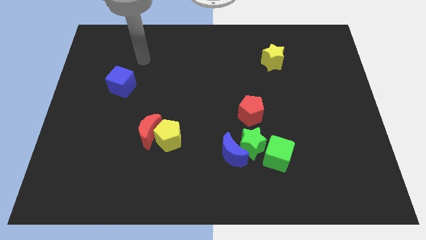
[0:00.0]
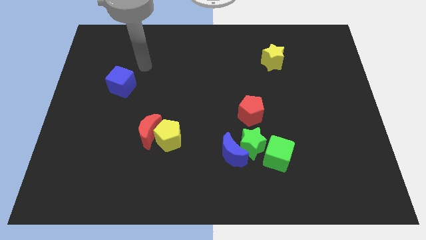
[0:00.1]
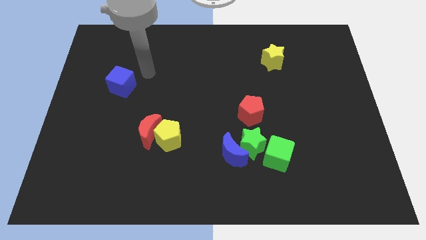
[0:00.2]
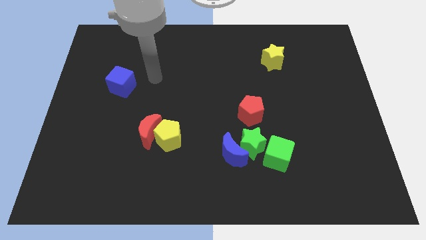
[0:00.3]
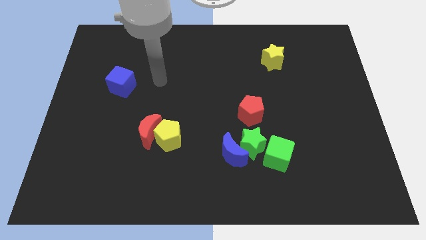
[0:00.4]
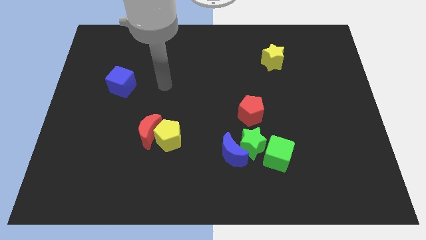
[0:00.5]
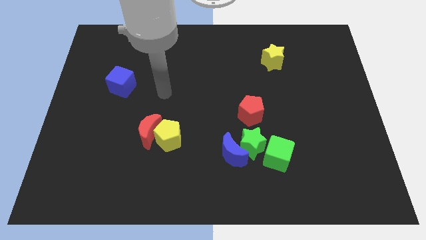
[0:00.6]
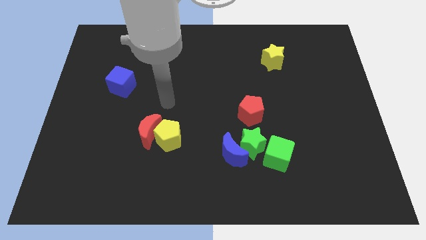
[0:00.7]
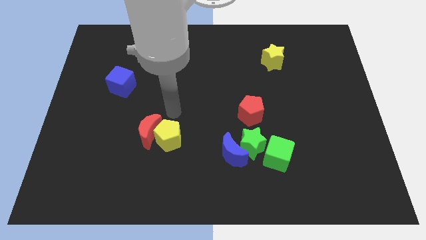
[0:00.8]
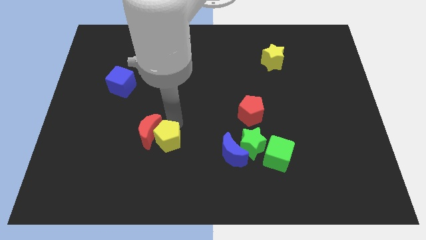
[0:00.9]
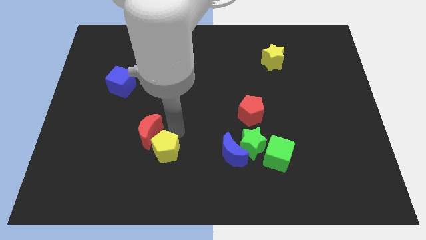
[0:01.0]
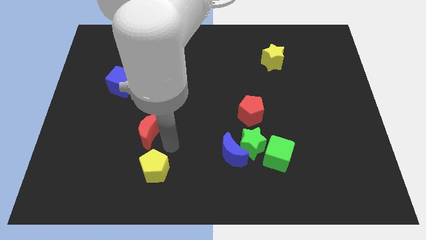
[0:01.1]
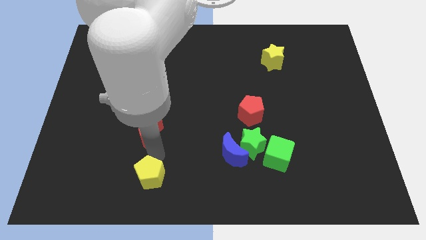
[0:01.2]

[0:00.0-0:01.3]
pull the red moon apart from the yellow pentagon

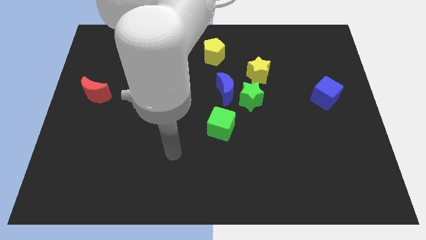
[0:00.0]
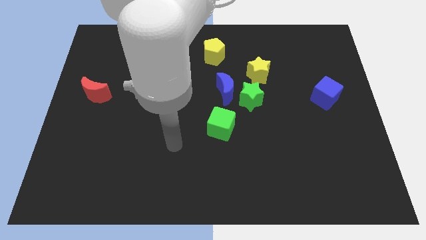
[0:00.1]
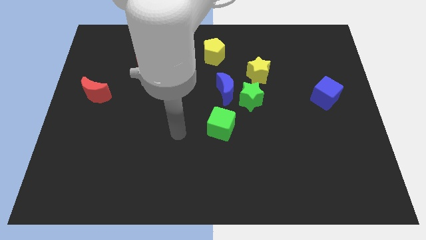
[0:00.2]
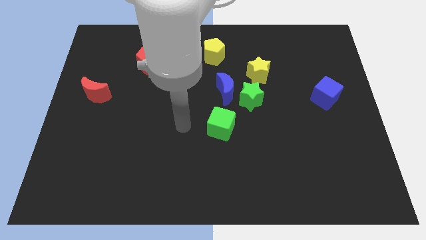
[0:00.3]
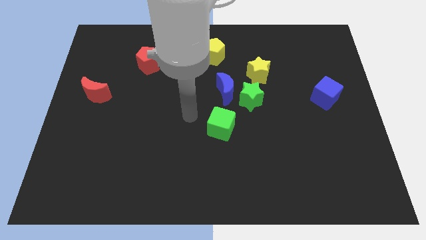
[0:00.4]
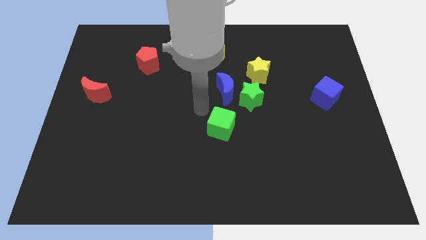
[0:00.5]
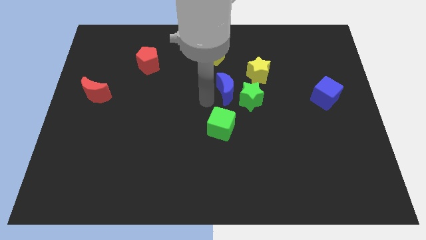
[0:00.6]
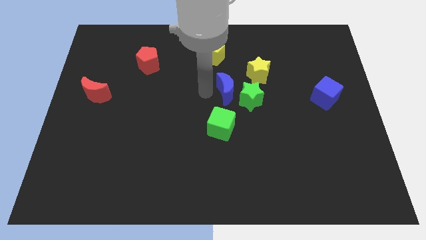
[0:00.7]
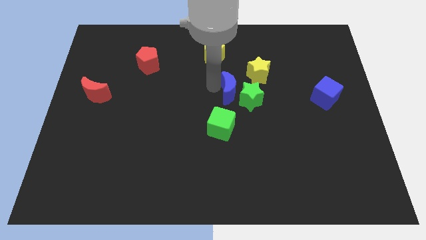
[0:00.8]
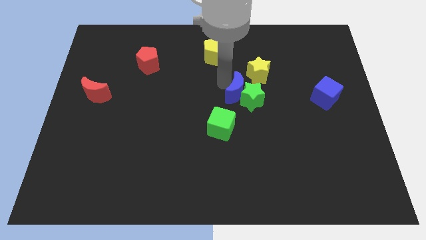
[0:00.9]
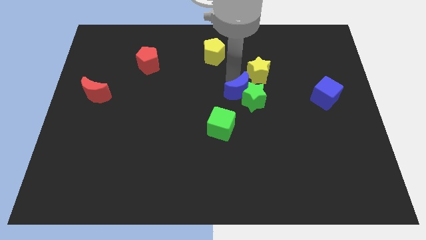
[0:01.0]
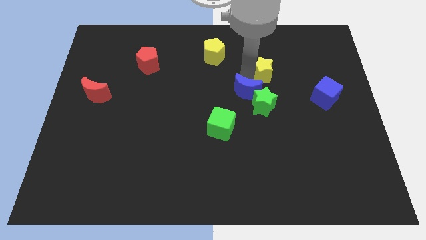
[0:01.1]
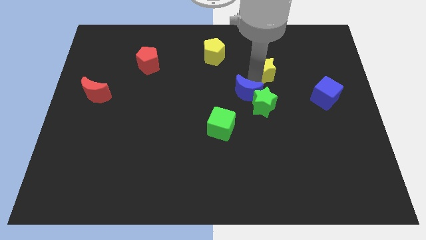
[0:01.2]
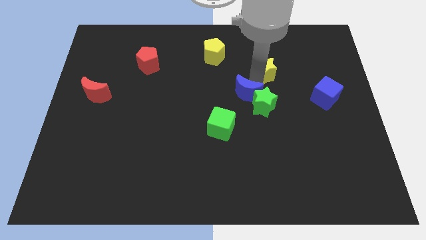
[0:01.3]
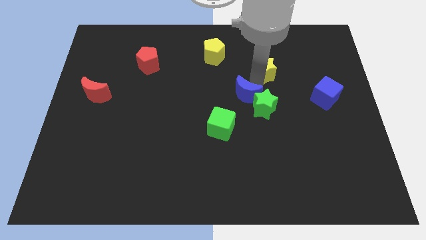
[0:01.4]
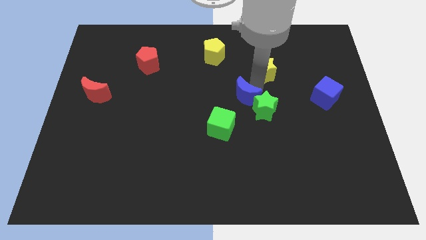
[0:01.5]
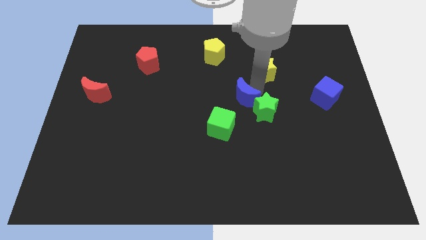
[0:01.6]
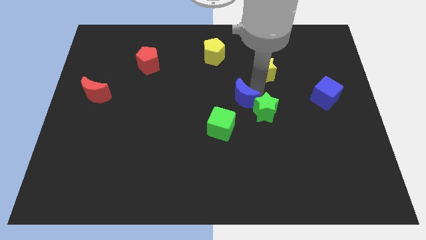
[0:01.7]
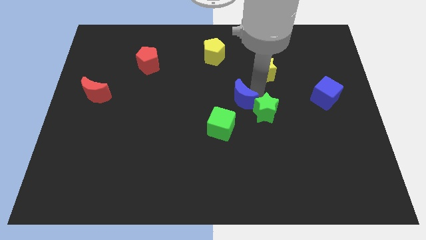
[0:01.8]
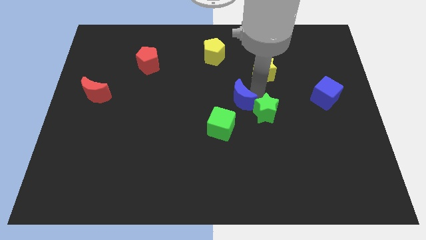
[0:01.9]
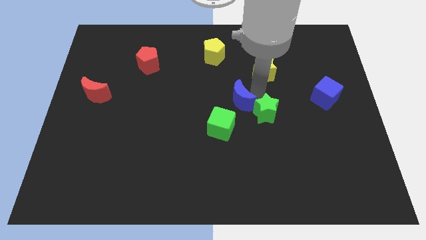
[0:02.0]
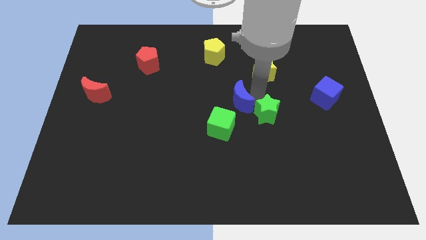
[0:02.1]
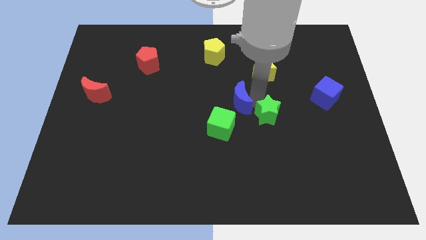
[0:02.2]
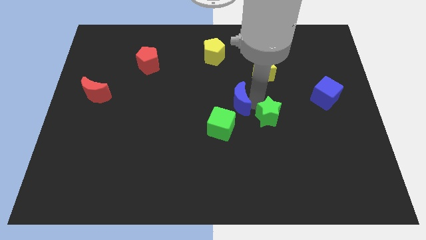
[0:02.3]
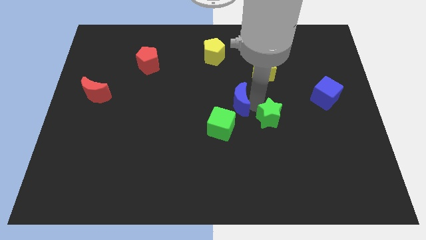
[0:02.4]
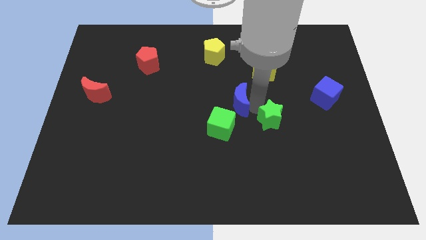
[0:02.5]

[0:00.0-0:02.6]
pull the green star apart from the blue moon and yellow star

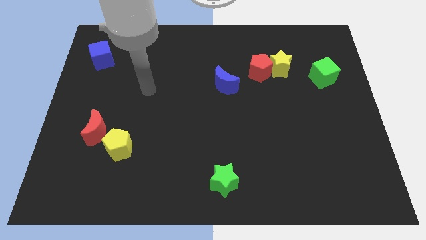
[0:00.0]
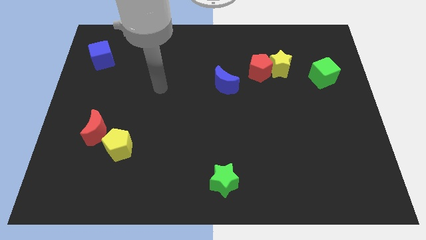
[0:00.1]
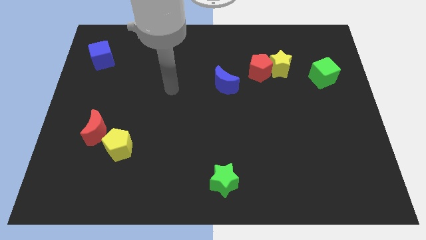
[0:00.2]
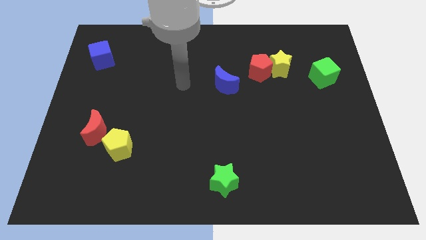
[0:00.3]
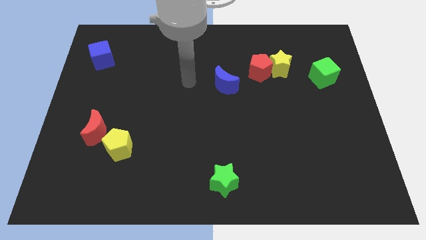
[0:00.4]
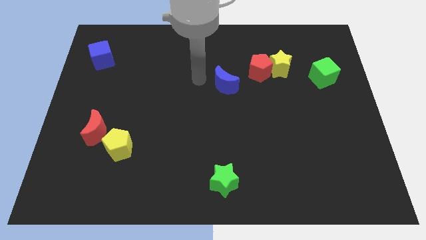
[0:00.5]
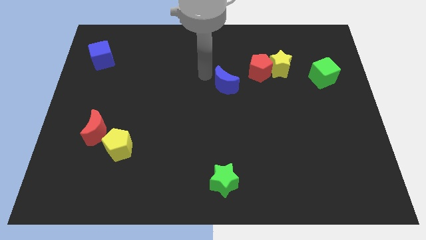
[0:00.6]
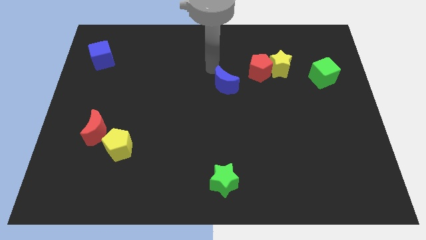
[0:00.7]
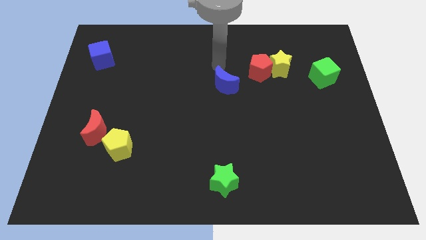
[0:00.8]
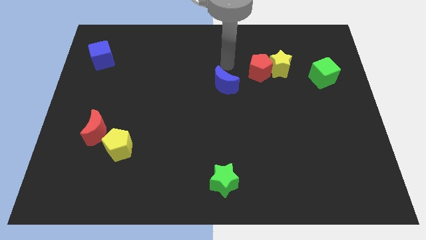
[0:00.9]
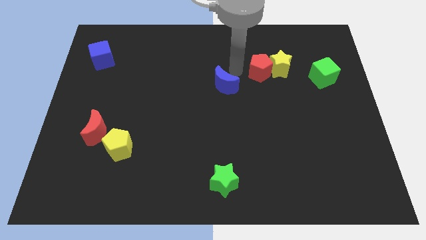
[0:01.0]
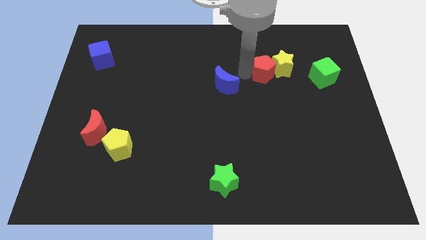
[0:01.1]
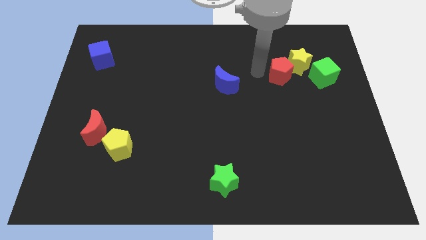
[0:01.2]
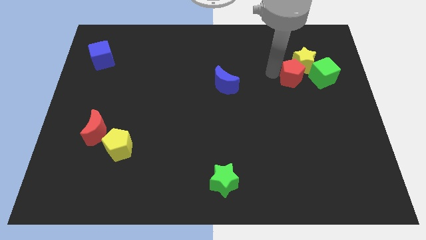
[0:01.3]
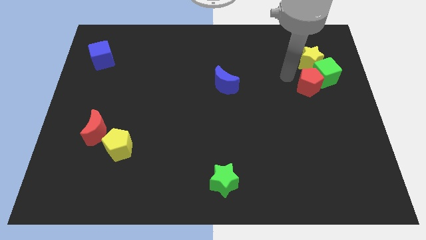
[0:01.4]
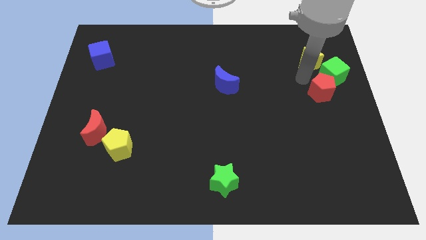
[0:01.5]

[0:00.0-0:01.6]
separate the yellow star from the red pentagon

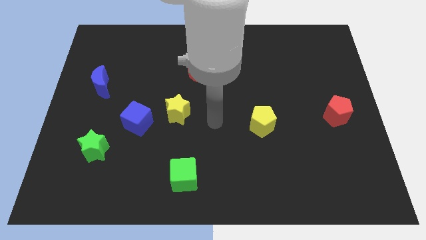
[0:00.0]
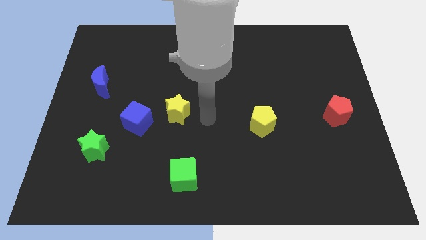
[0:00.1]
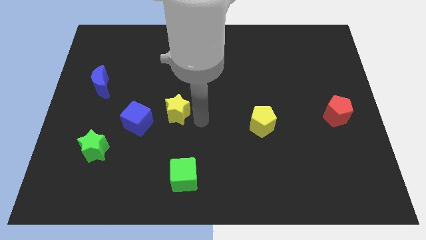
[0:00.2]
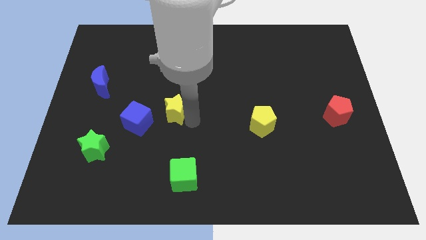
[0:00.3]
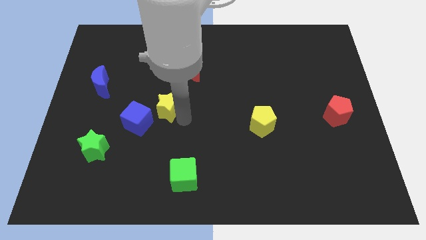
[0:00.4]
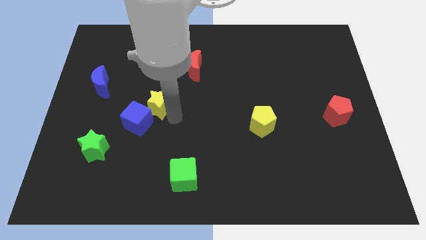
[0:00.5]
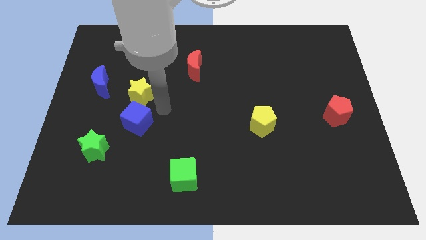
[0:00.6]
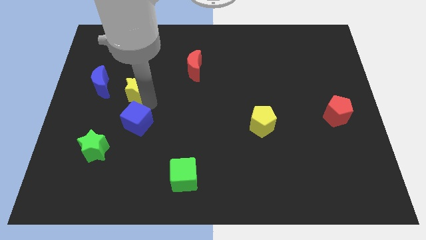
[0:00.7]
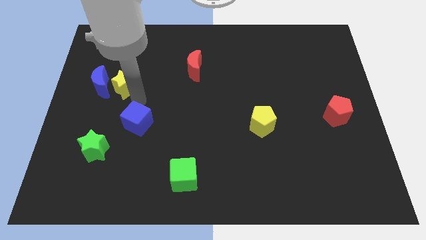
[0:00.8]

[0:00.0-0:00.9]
move the blue cube away from the yellow star

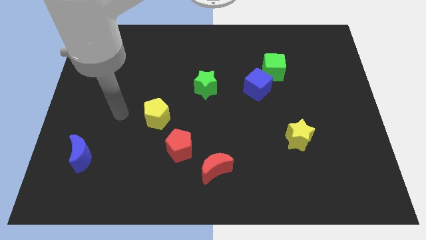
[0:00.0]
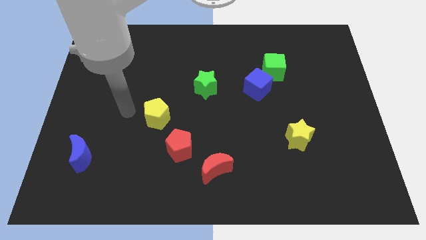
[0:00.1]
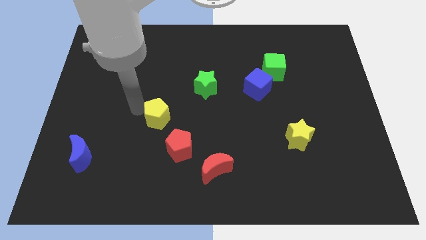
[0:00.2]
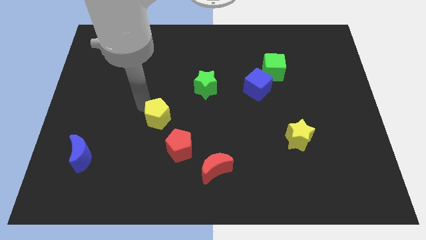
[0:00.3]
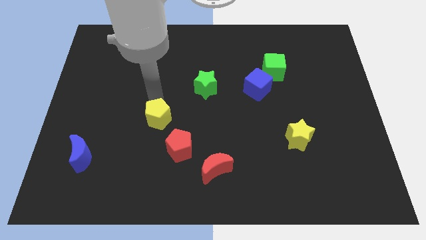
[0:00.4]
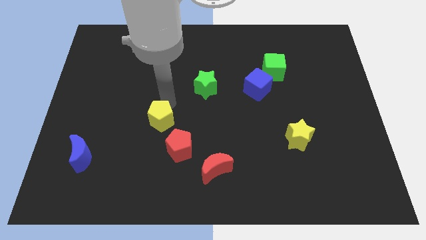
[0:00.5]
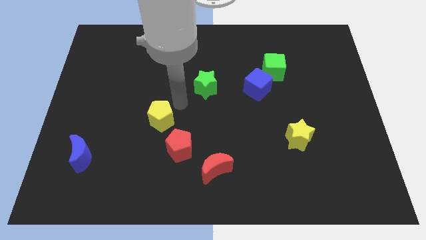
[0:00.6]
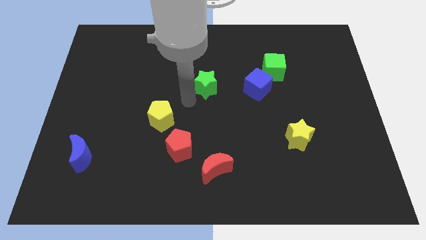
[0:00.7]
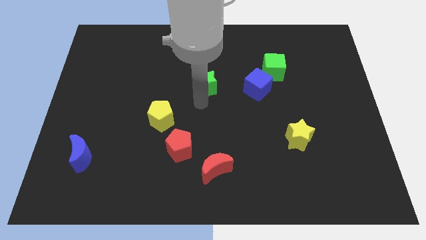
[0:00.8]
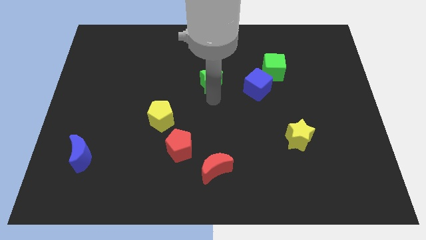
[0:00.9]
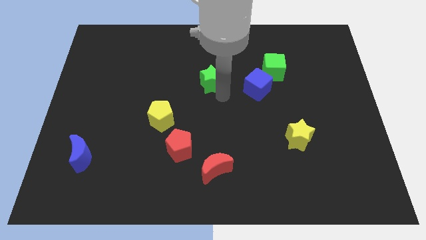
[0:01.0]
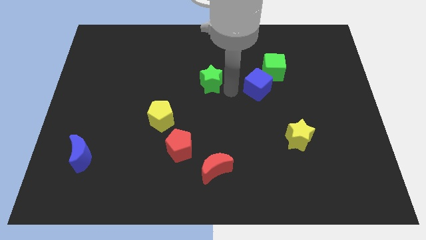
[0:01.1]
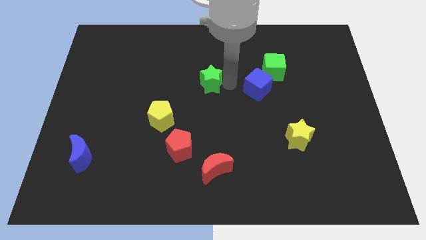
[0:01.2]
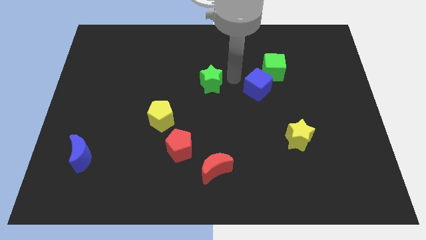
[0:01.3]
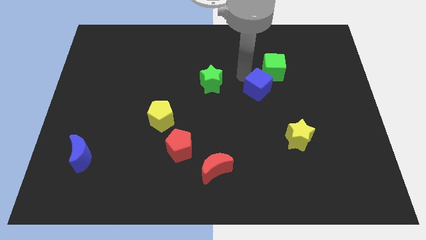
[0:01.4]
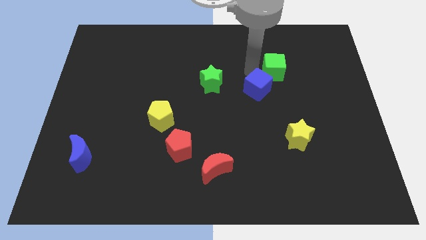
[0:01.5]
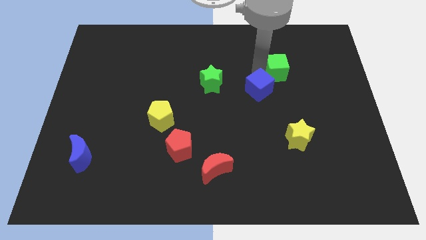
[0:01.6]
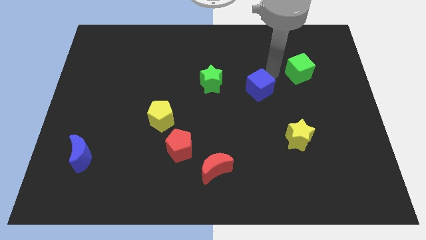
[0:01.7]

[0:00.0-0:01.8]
pull the blue cube apart from the green cube

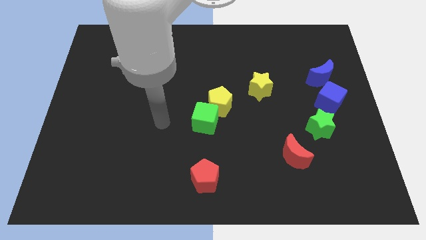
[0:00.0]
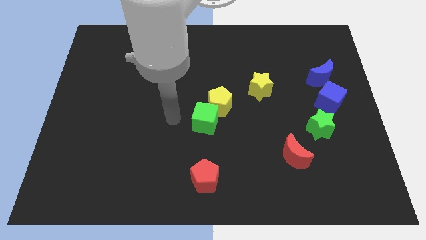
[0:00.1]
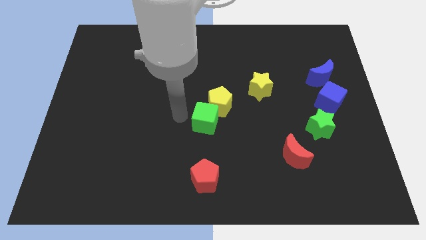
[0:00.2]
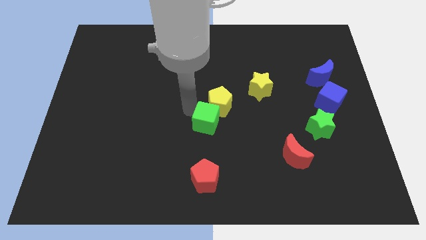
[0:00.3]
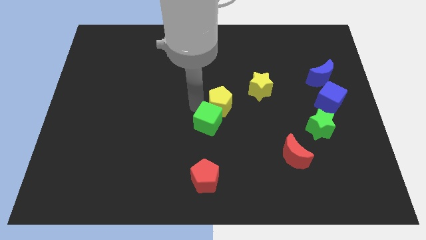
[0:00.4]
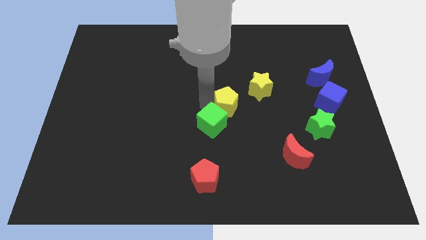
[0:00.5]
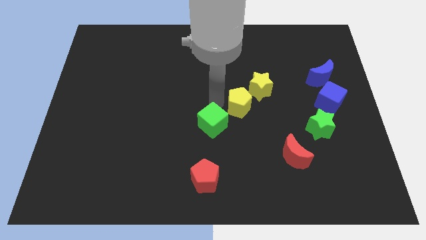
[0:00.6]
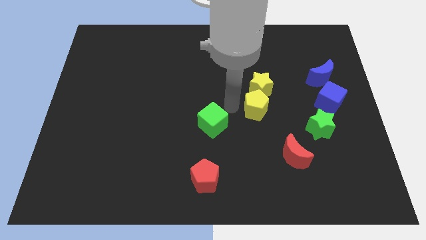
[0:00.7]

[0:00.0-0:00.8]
move the green cube away from the yellow pentagon

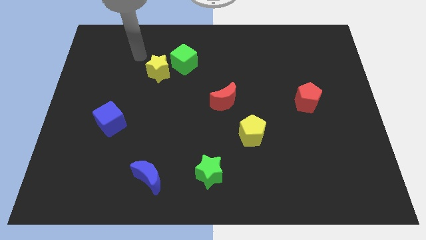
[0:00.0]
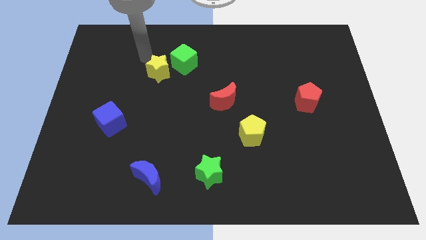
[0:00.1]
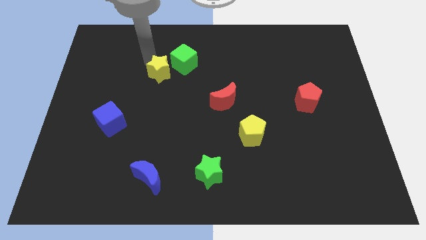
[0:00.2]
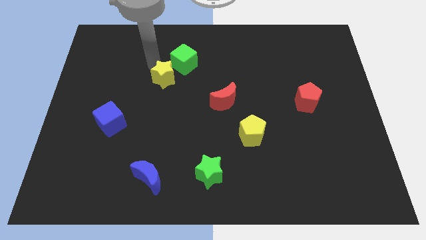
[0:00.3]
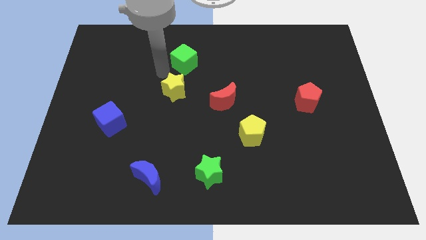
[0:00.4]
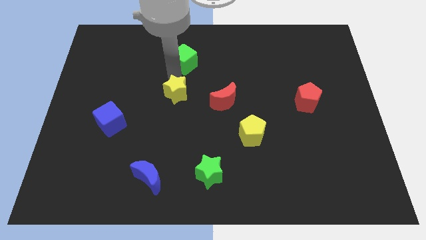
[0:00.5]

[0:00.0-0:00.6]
separate the green cube from the yellow star
